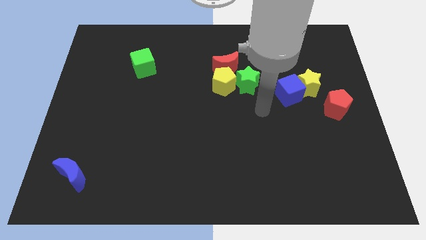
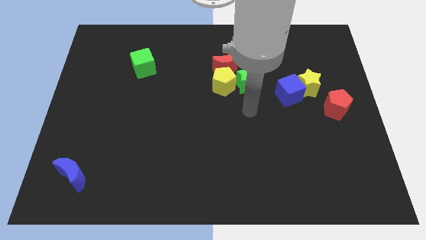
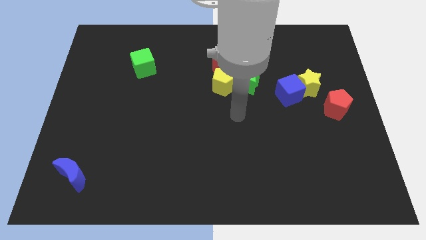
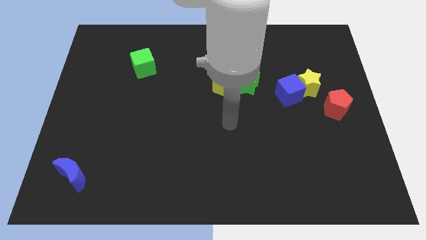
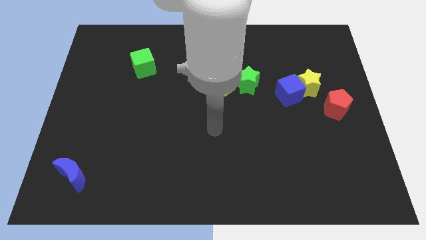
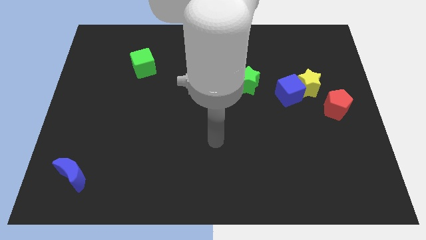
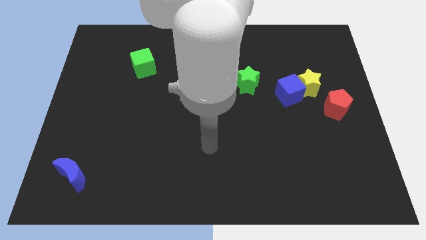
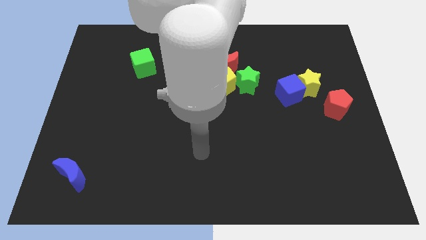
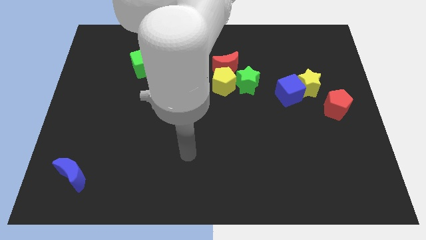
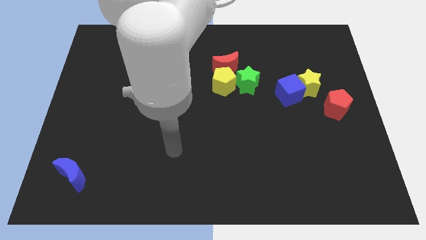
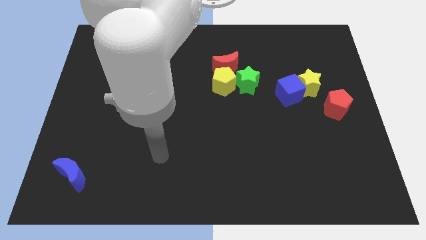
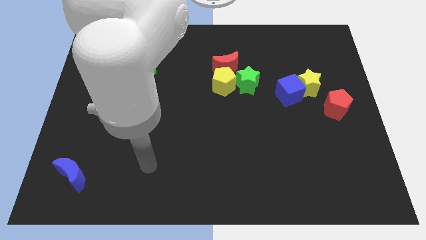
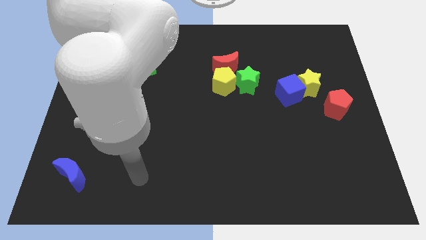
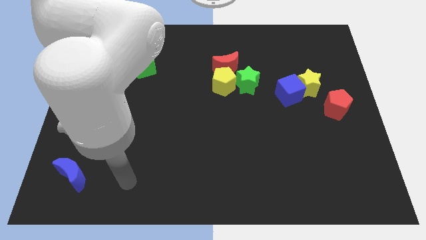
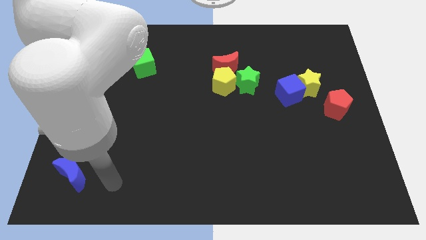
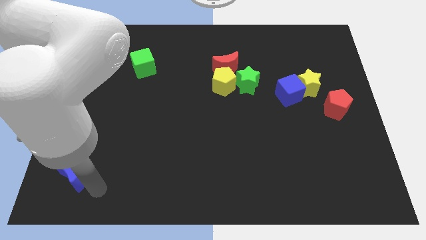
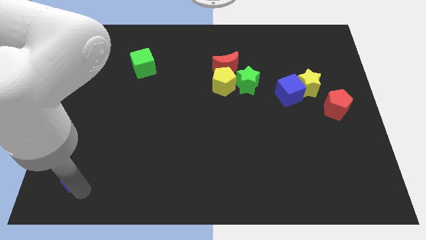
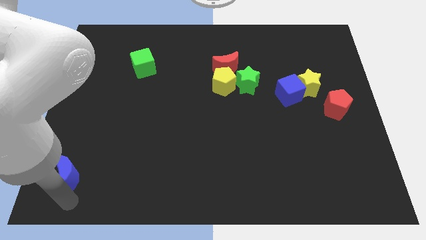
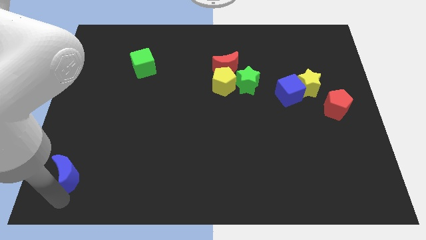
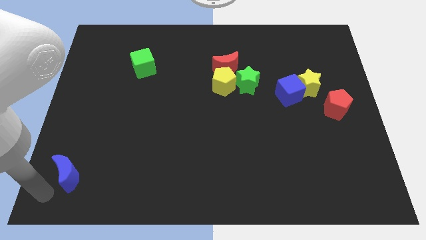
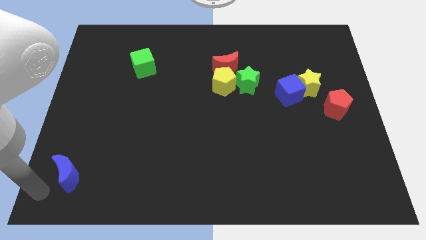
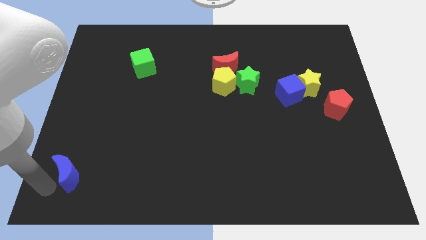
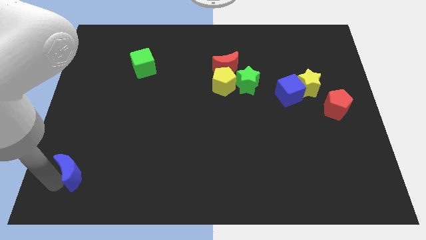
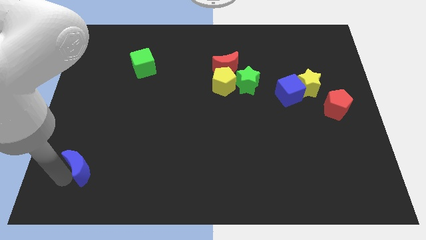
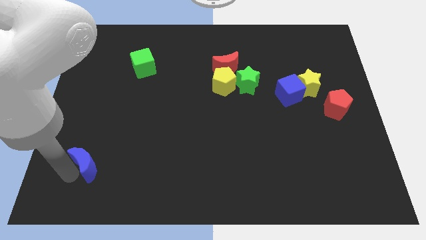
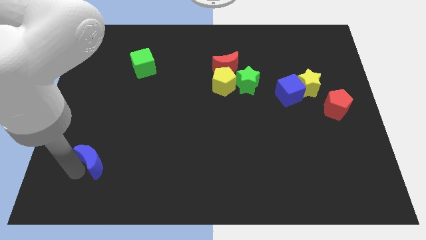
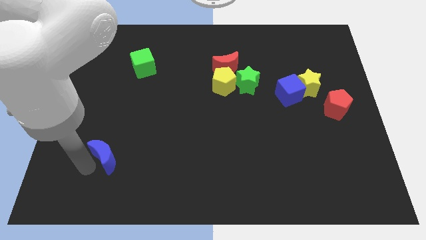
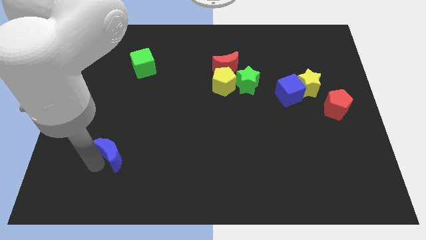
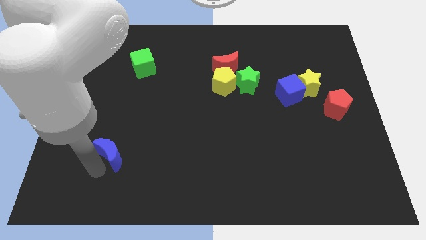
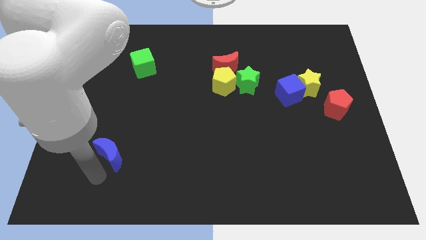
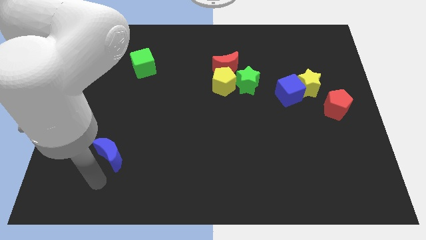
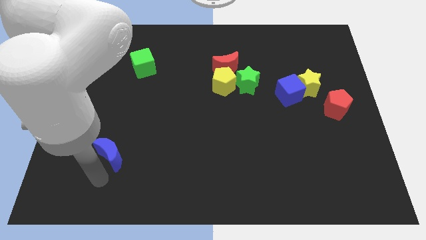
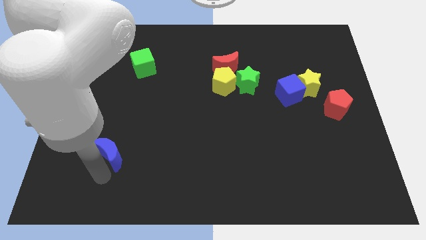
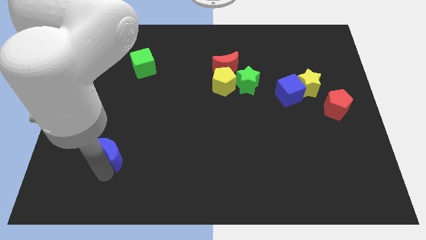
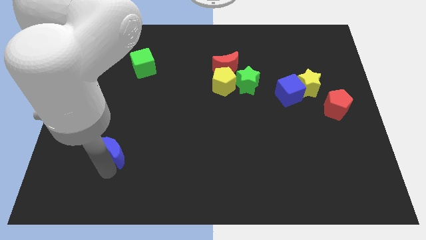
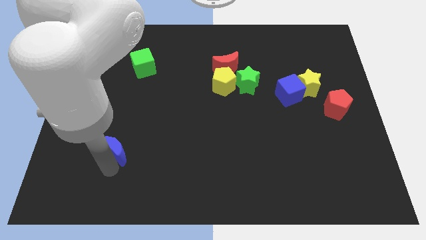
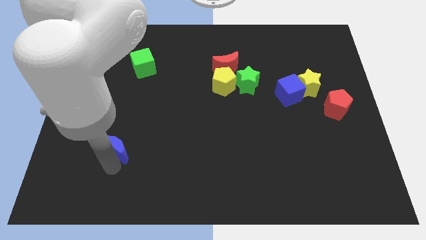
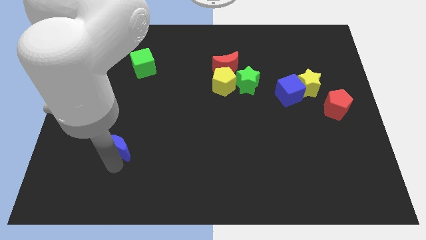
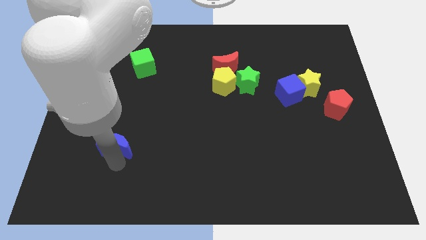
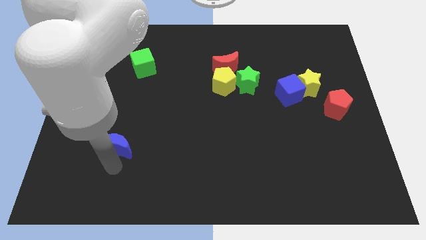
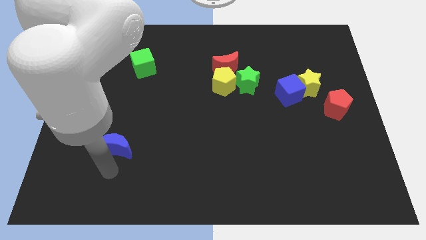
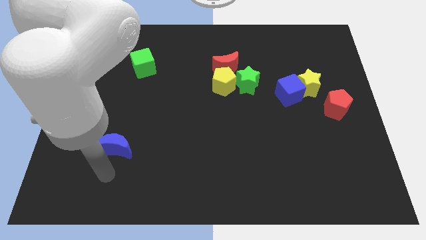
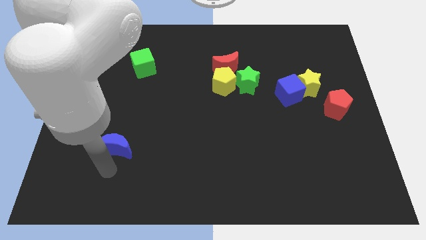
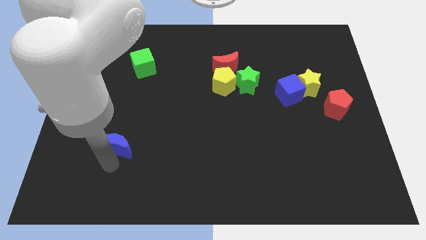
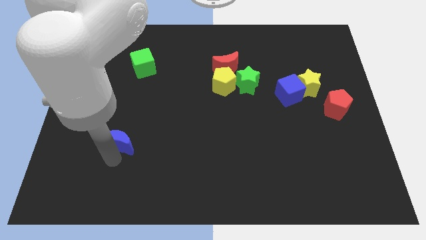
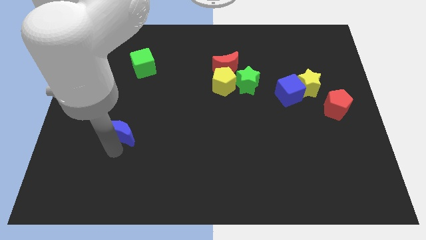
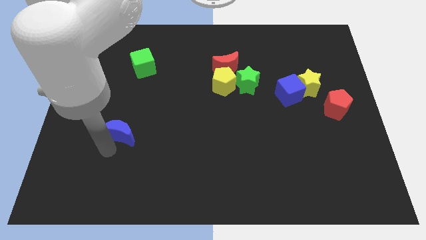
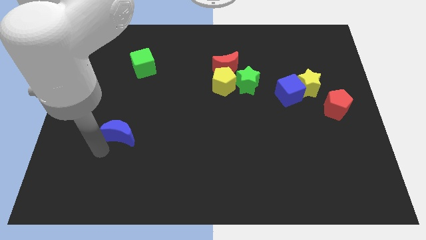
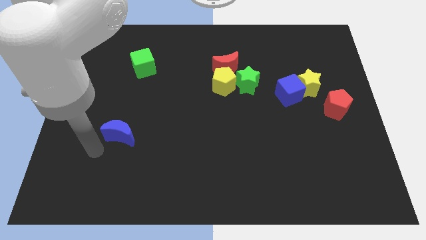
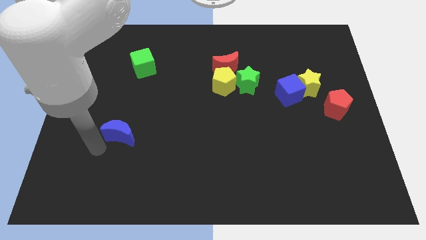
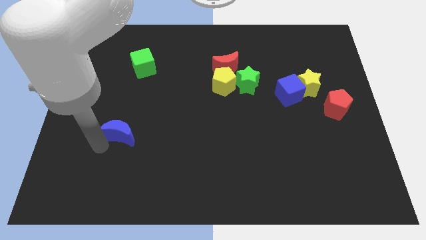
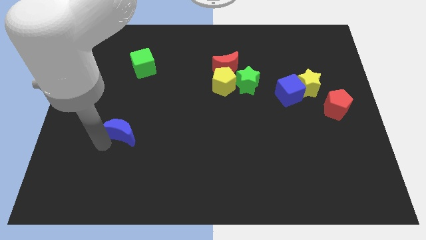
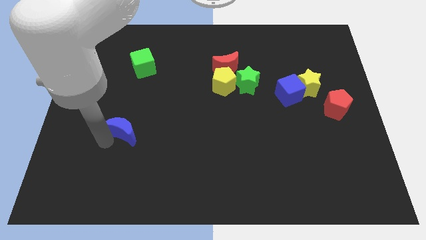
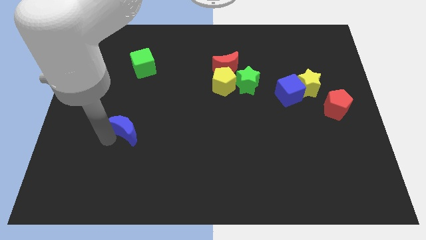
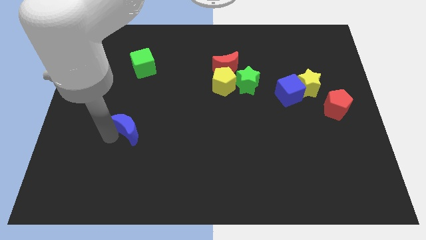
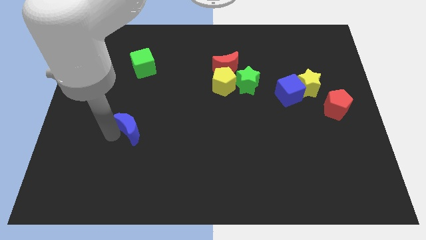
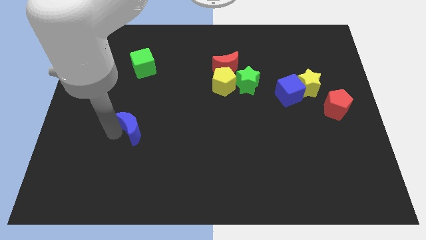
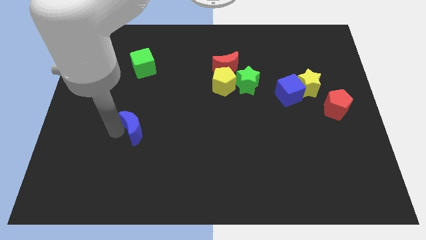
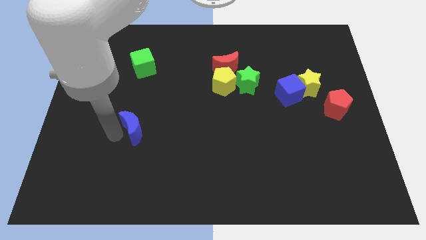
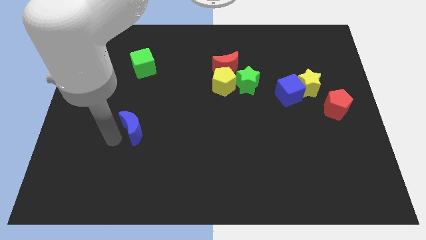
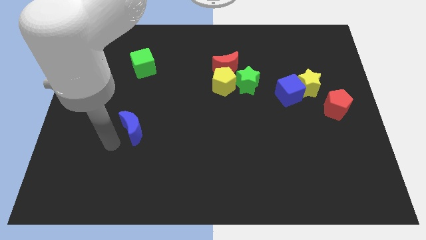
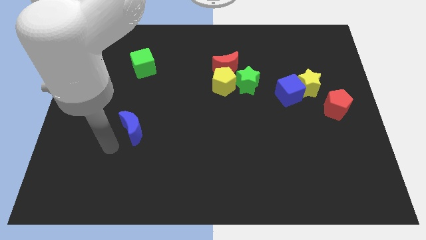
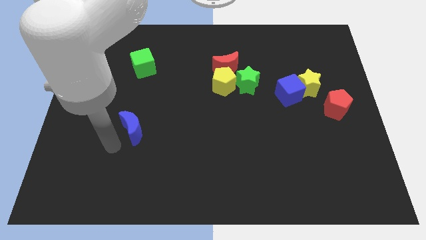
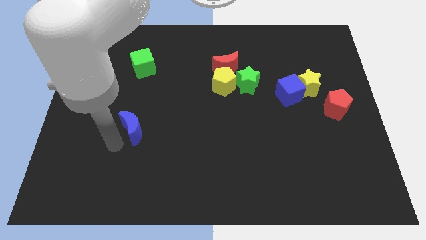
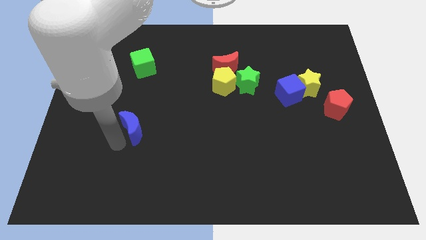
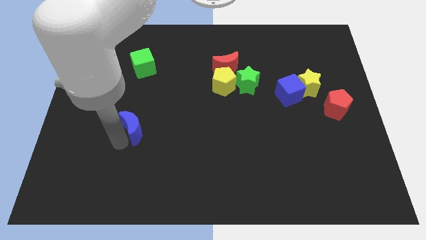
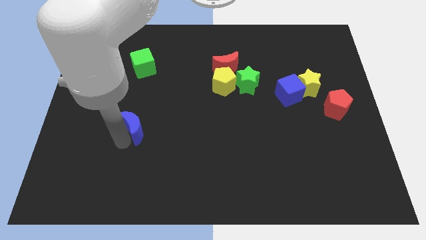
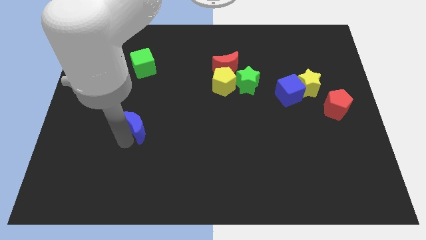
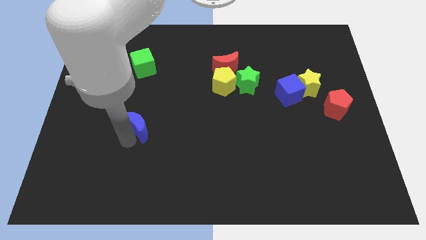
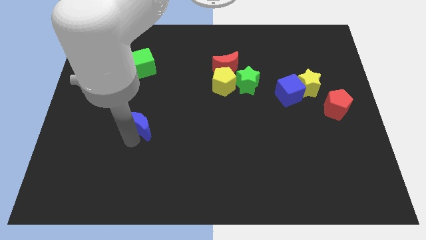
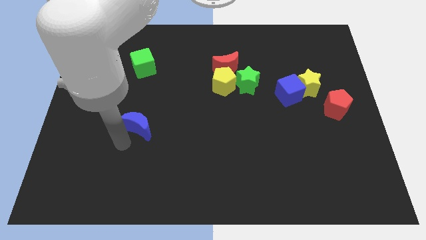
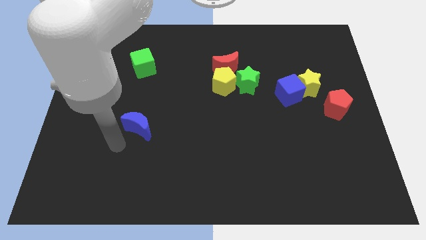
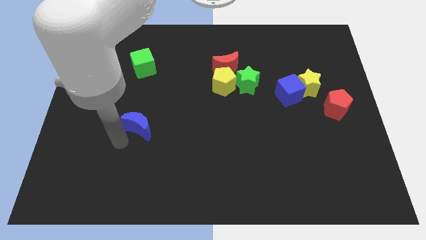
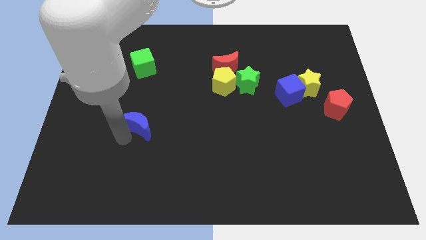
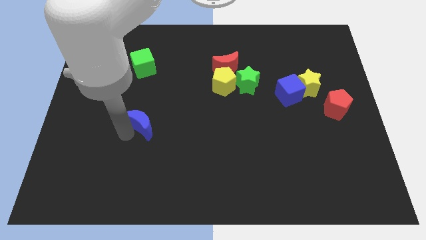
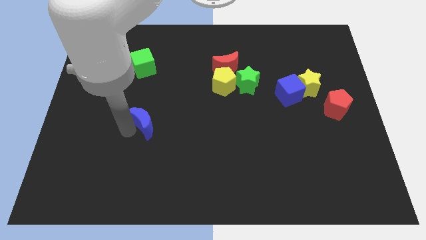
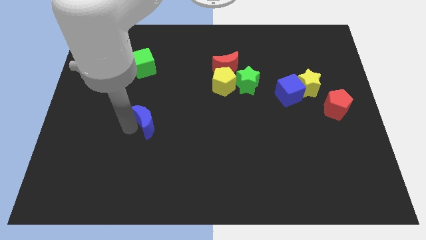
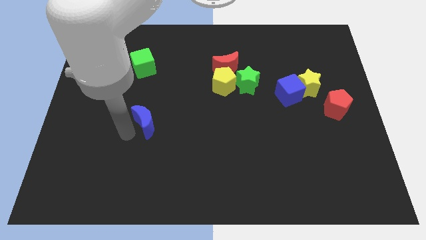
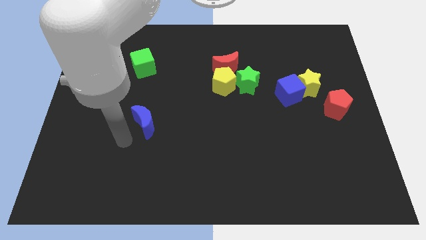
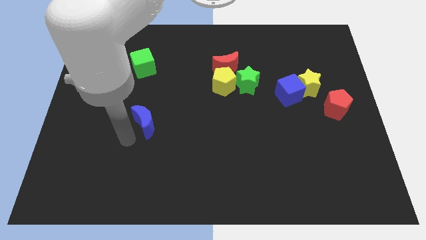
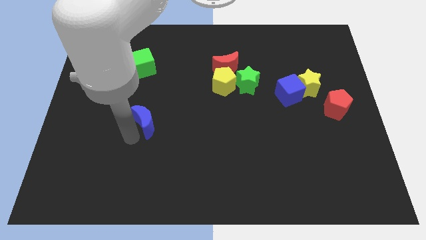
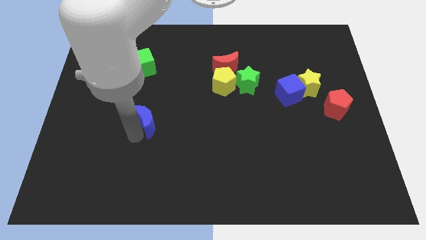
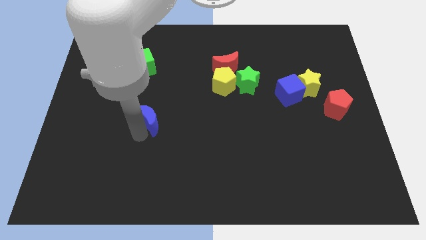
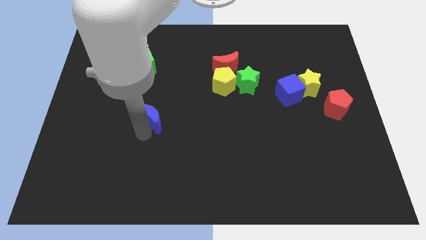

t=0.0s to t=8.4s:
slide the blue moon upwards and then to the right
